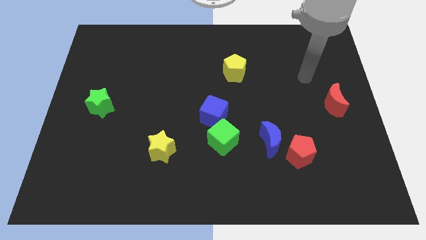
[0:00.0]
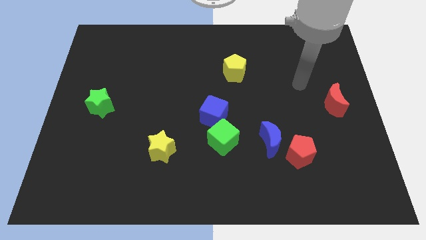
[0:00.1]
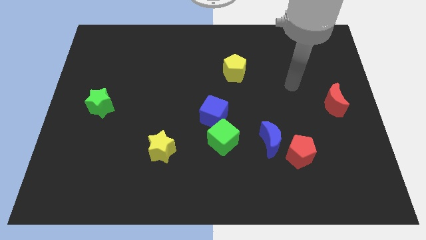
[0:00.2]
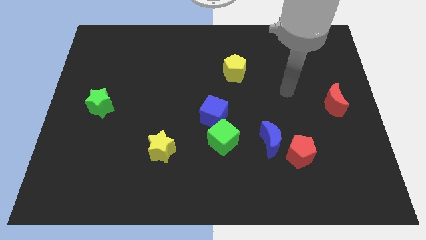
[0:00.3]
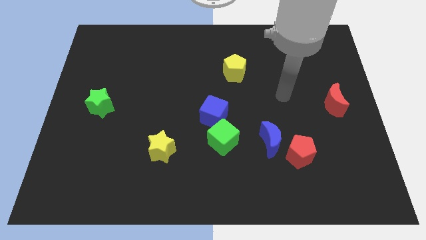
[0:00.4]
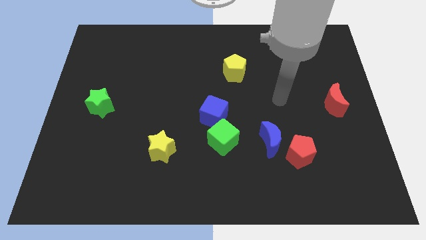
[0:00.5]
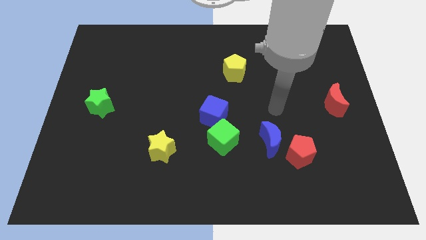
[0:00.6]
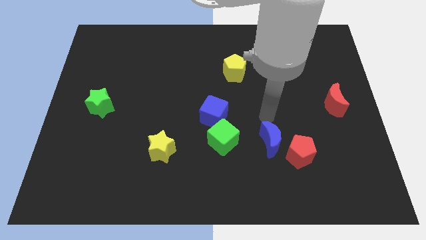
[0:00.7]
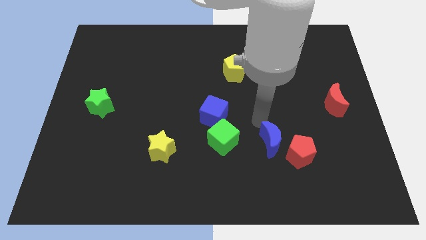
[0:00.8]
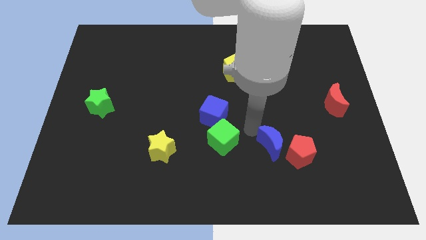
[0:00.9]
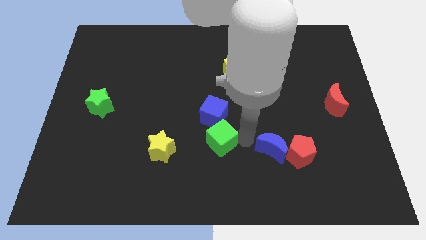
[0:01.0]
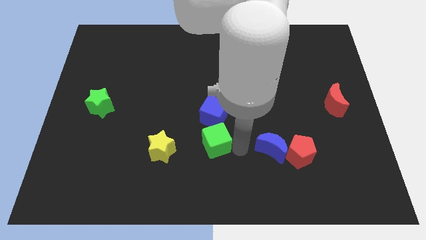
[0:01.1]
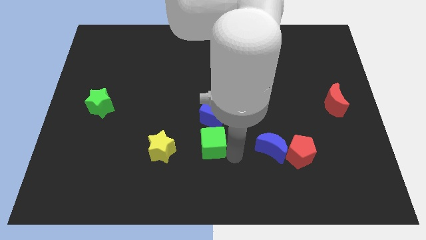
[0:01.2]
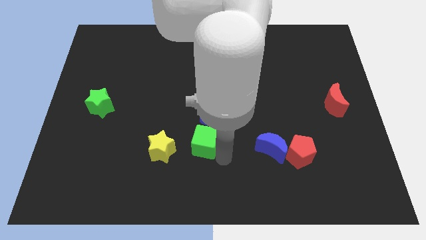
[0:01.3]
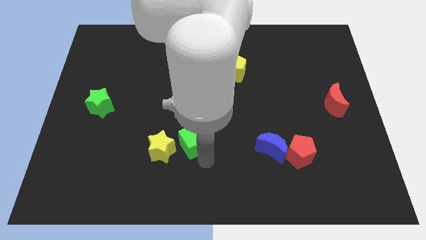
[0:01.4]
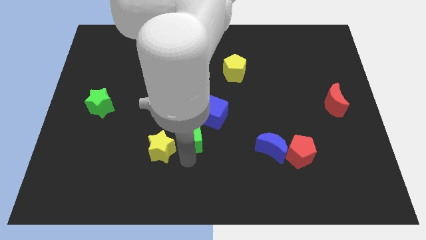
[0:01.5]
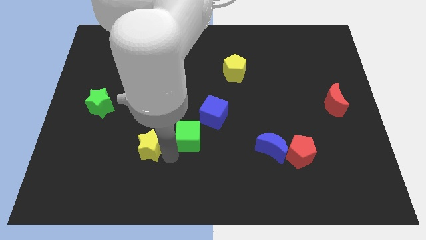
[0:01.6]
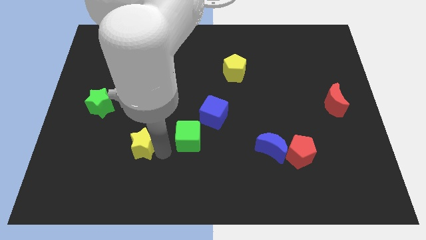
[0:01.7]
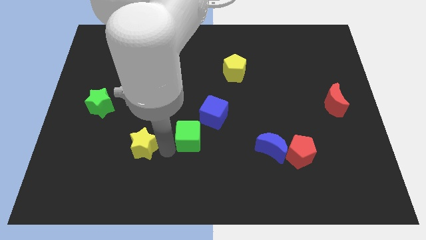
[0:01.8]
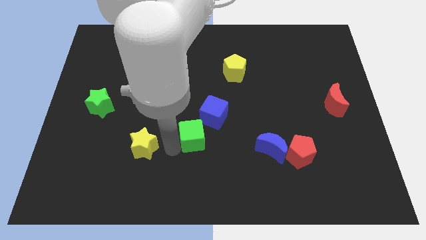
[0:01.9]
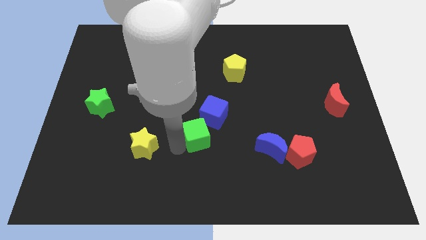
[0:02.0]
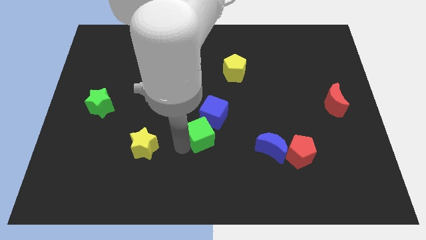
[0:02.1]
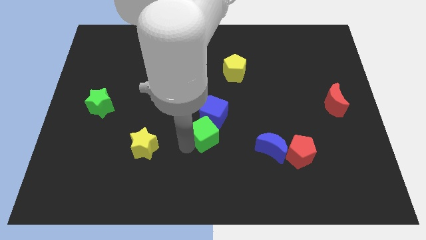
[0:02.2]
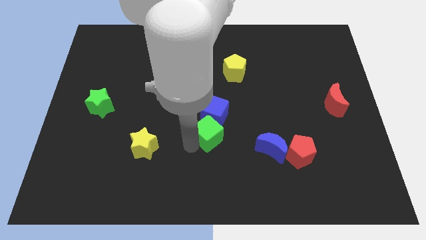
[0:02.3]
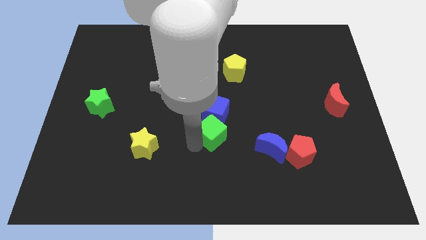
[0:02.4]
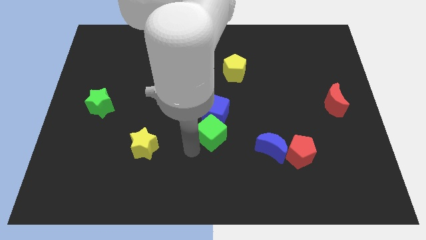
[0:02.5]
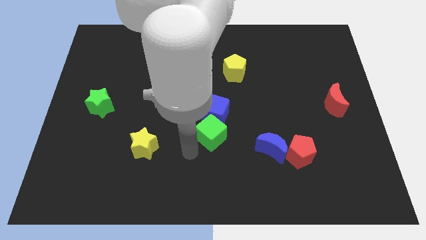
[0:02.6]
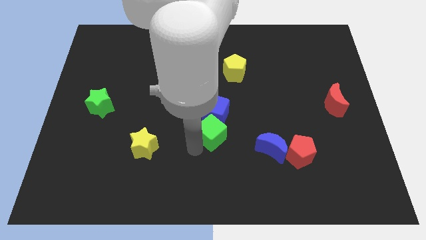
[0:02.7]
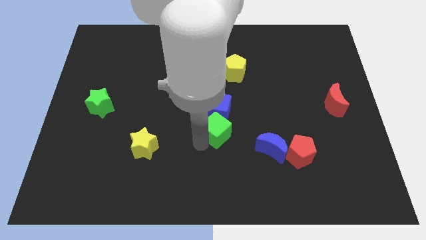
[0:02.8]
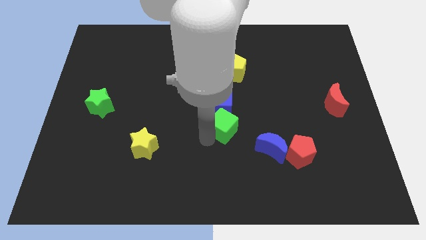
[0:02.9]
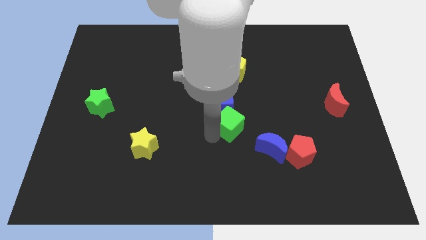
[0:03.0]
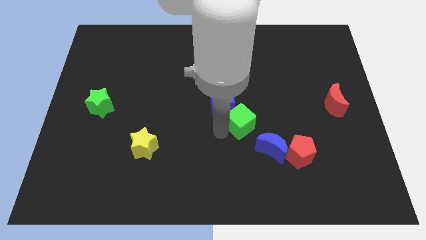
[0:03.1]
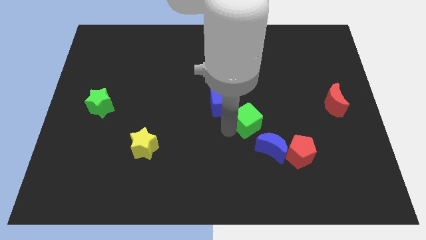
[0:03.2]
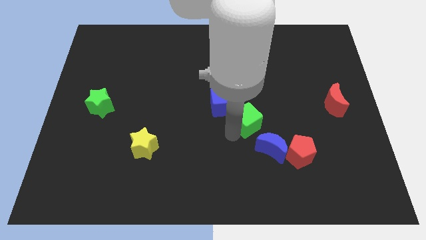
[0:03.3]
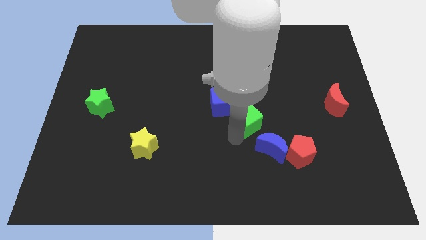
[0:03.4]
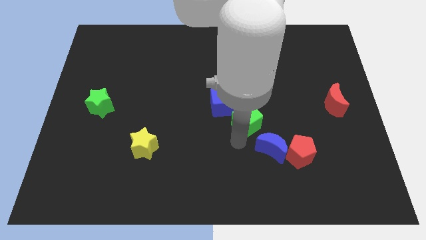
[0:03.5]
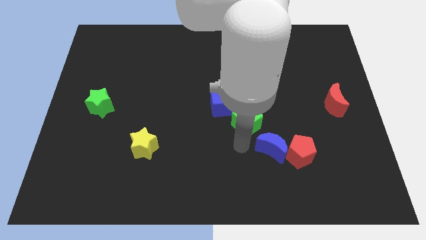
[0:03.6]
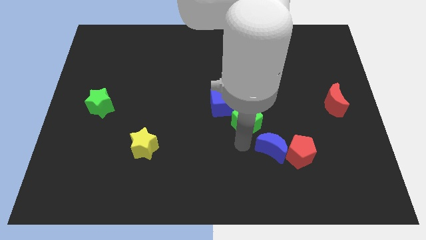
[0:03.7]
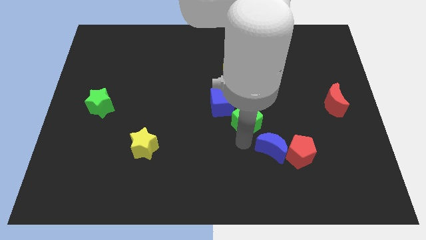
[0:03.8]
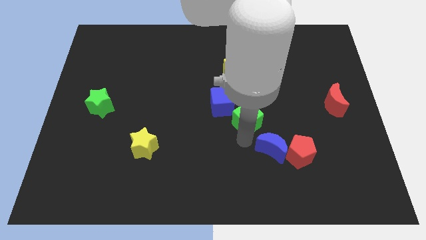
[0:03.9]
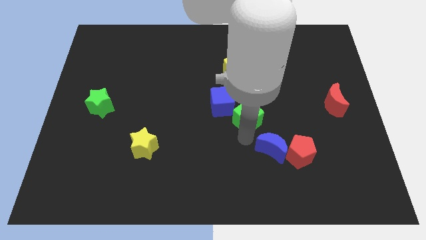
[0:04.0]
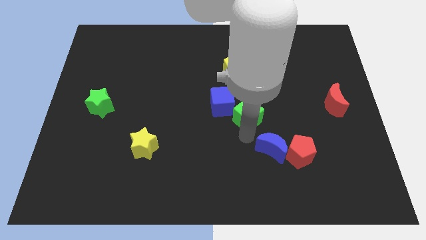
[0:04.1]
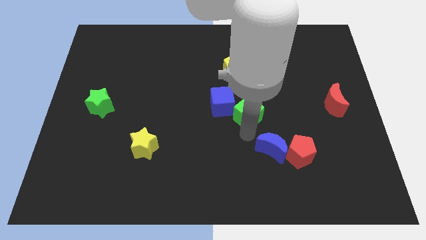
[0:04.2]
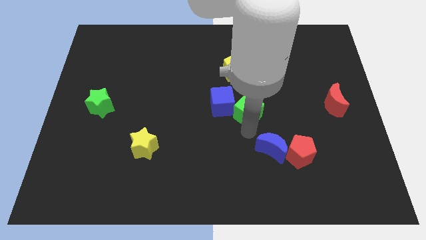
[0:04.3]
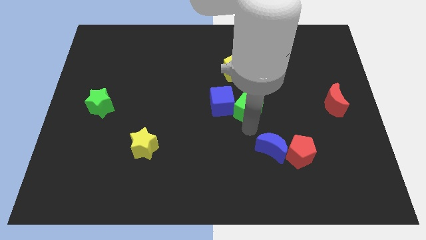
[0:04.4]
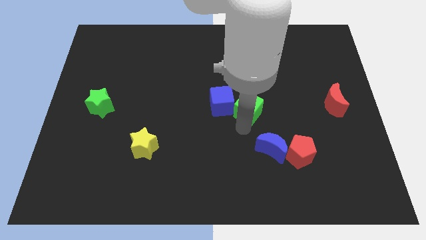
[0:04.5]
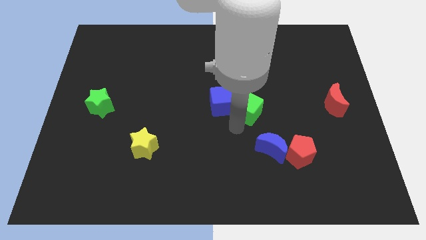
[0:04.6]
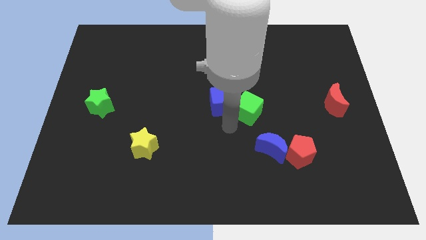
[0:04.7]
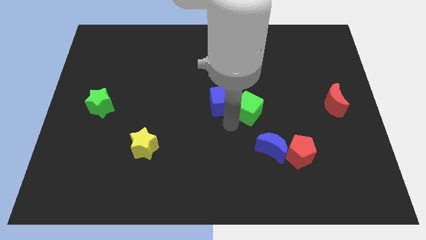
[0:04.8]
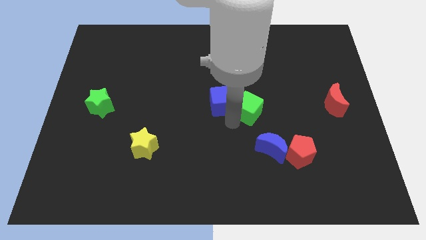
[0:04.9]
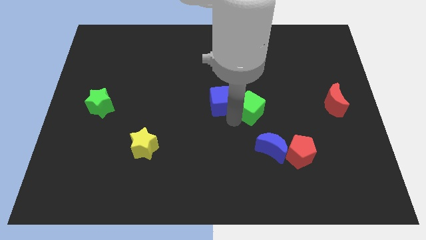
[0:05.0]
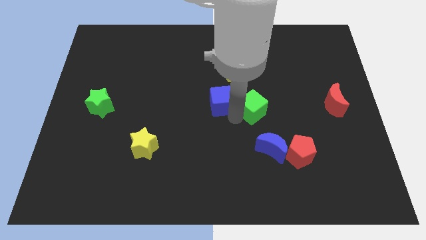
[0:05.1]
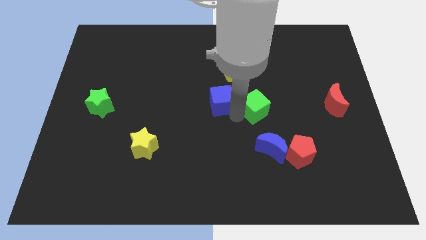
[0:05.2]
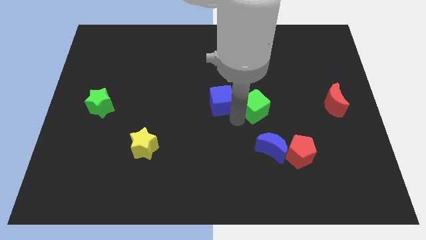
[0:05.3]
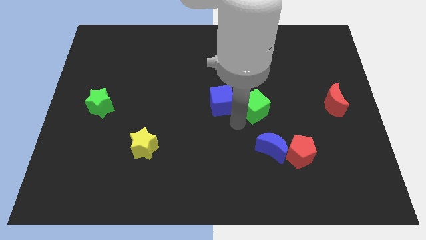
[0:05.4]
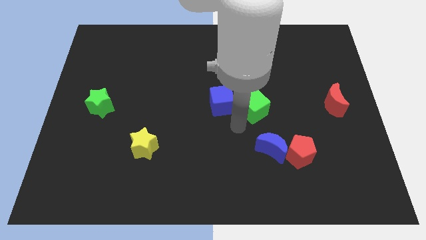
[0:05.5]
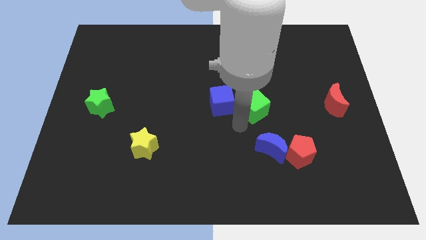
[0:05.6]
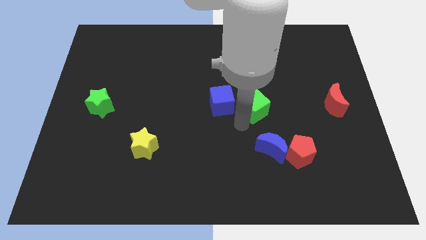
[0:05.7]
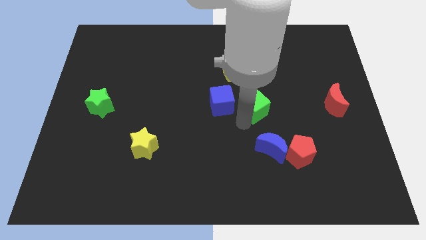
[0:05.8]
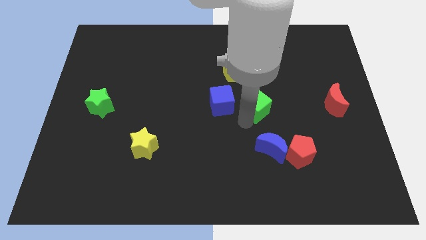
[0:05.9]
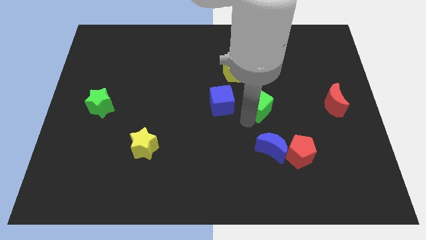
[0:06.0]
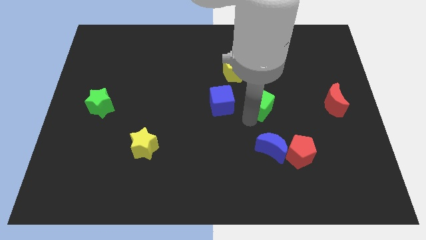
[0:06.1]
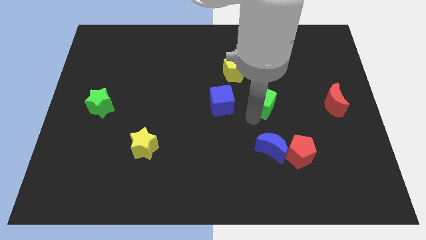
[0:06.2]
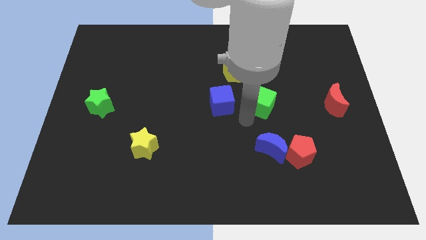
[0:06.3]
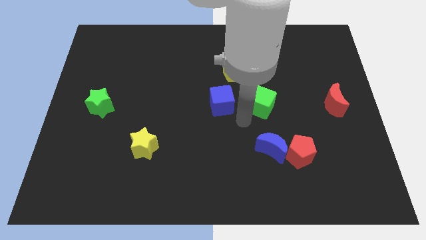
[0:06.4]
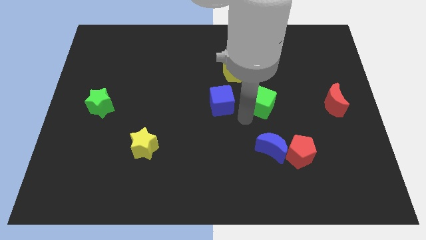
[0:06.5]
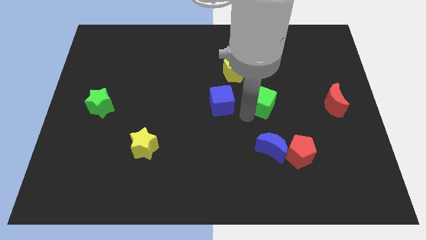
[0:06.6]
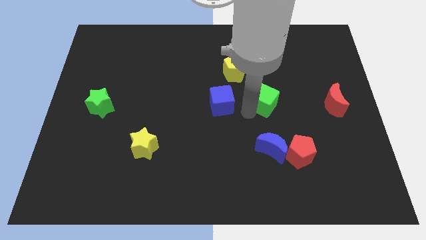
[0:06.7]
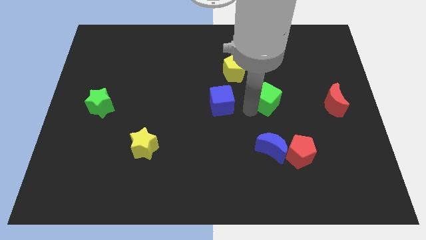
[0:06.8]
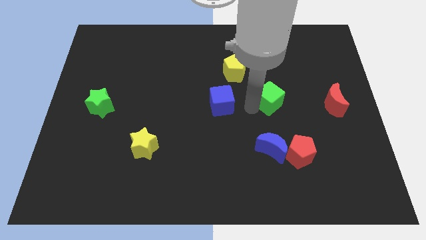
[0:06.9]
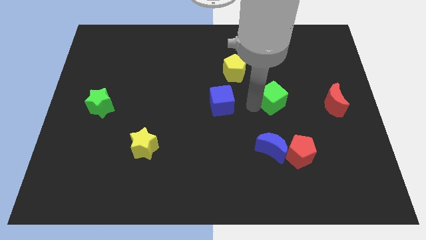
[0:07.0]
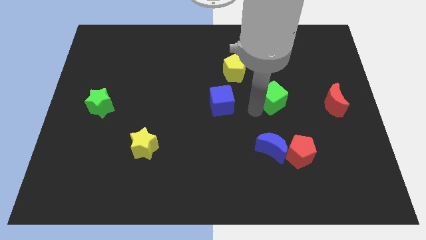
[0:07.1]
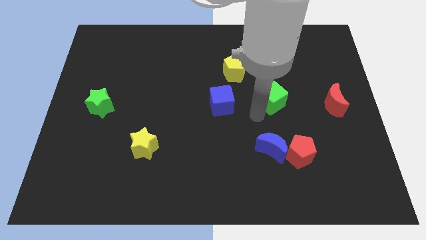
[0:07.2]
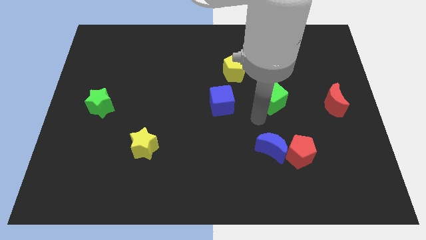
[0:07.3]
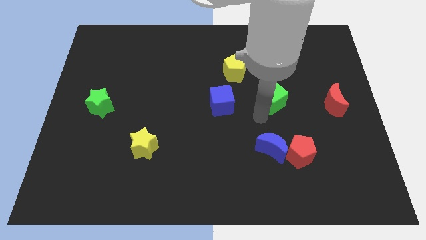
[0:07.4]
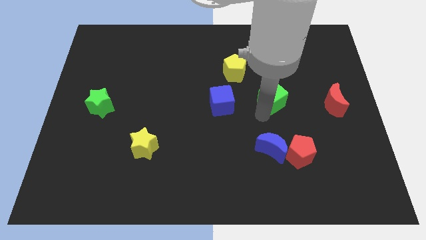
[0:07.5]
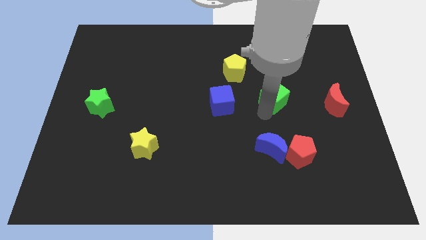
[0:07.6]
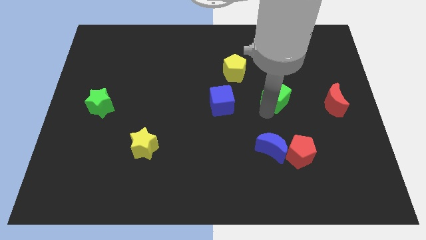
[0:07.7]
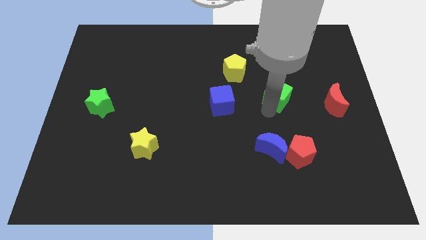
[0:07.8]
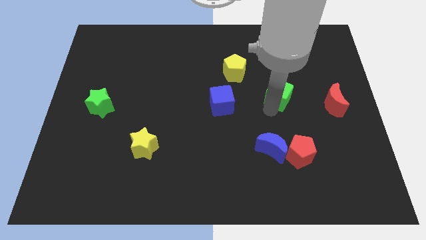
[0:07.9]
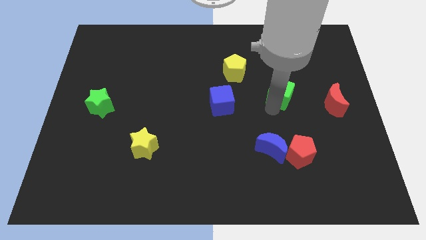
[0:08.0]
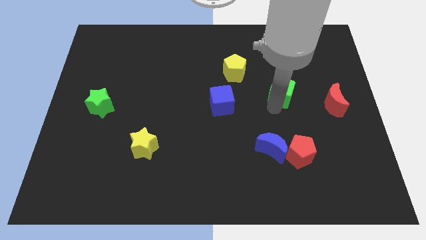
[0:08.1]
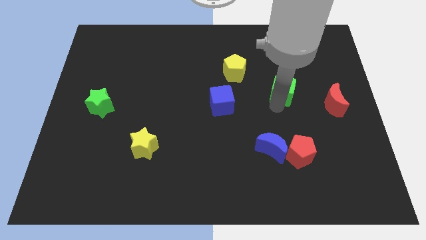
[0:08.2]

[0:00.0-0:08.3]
push the green cube upwards and to the right diagonally
